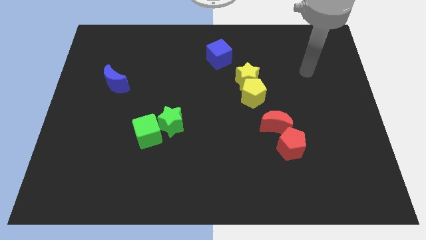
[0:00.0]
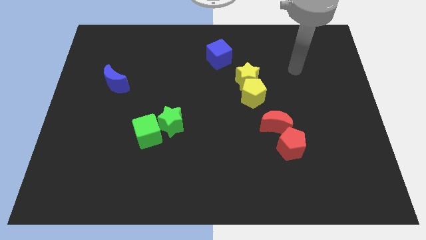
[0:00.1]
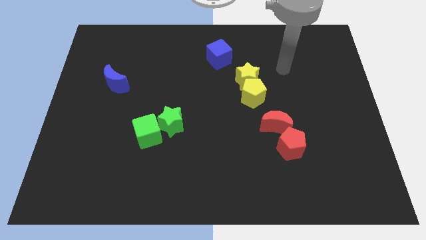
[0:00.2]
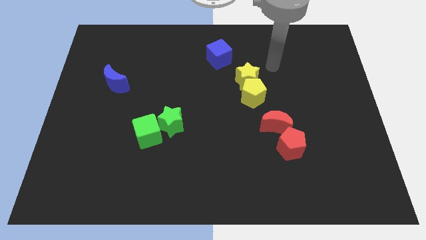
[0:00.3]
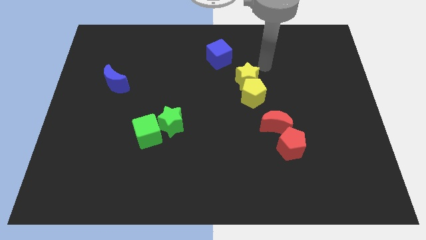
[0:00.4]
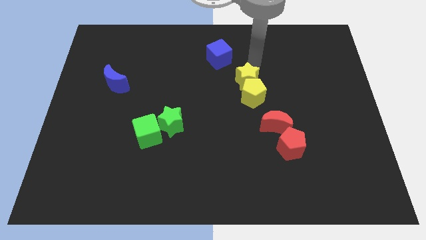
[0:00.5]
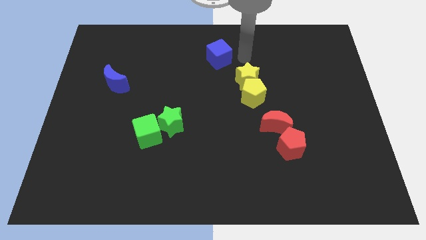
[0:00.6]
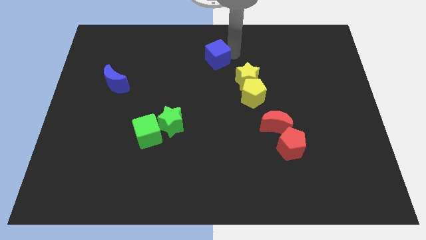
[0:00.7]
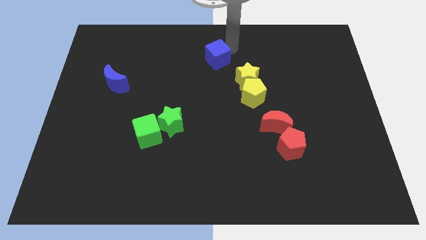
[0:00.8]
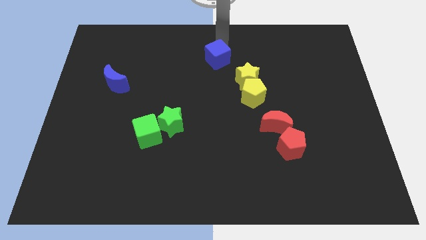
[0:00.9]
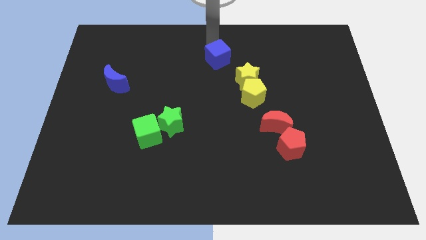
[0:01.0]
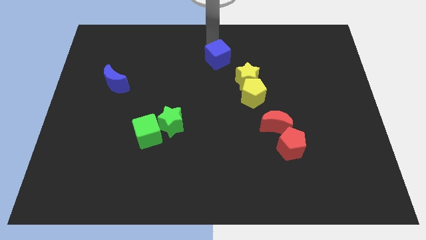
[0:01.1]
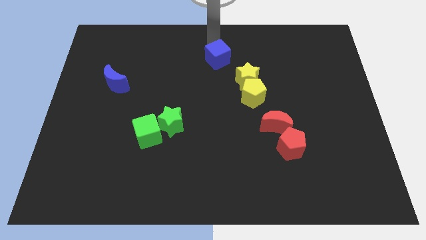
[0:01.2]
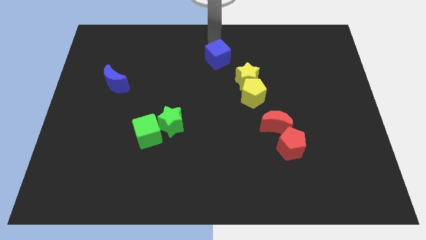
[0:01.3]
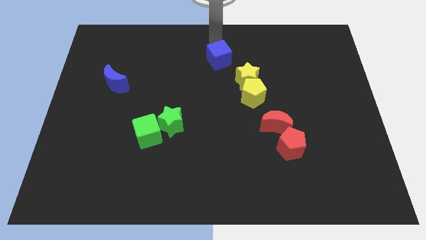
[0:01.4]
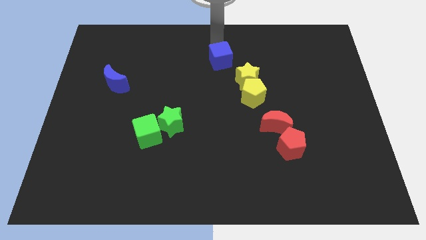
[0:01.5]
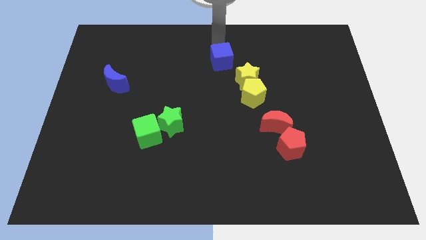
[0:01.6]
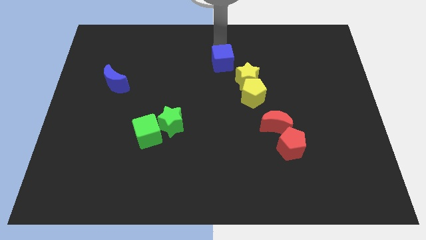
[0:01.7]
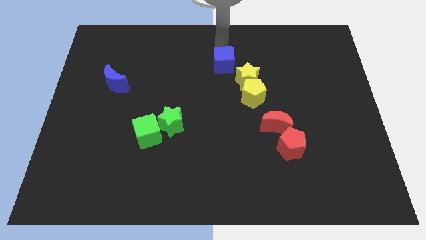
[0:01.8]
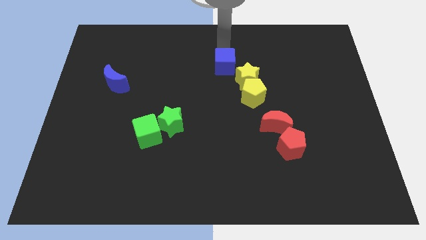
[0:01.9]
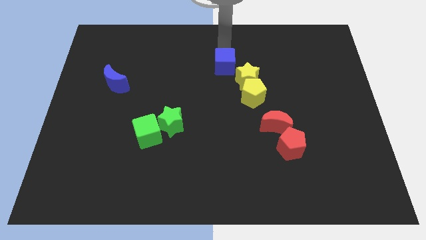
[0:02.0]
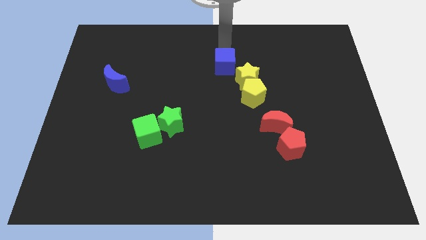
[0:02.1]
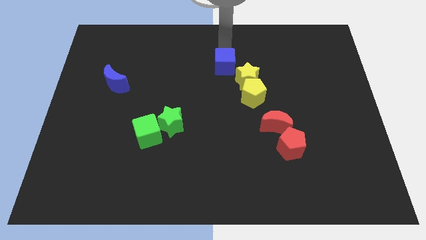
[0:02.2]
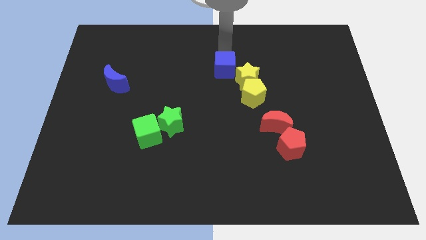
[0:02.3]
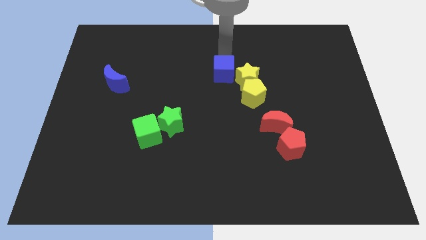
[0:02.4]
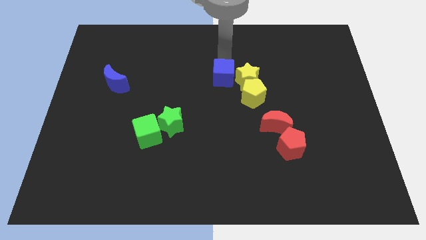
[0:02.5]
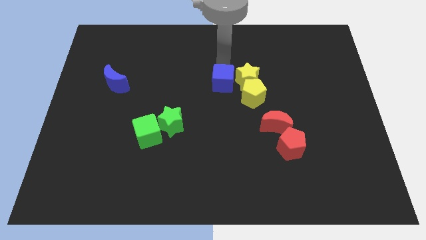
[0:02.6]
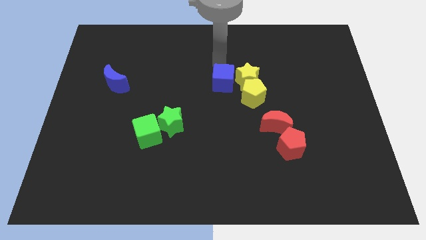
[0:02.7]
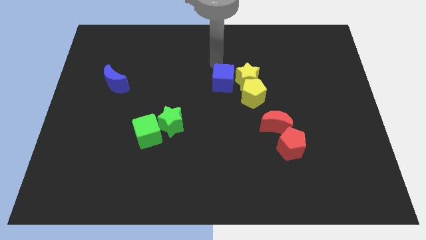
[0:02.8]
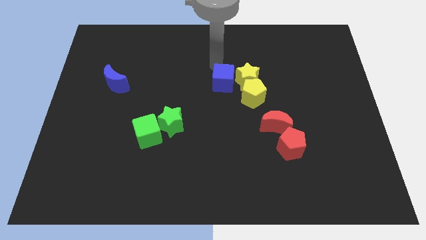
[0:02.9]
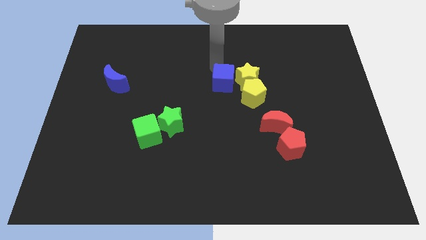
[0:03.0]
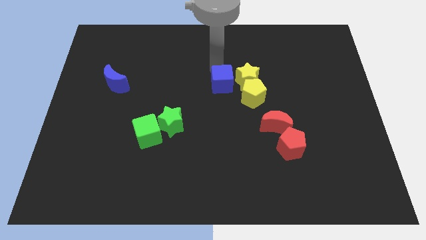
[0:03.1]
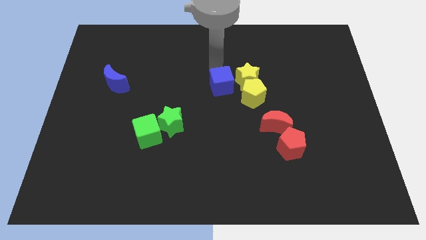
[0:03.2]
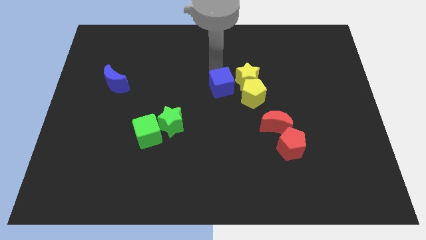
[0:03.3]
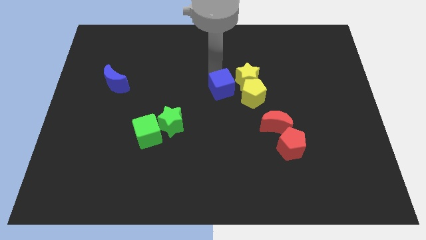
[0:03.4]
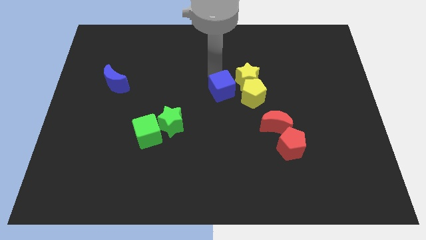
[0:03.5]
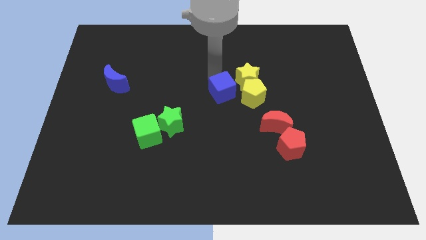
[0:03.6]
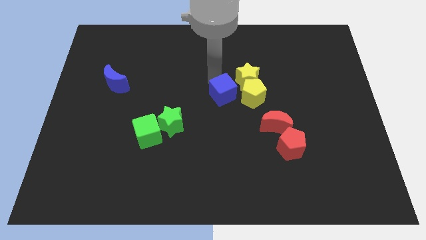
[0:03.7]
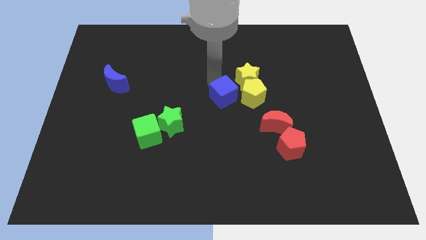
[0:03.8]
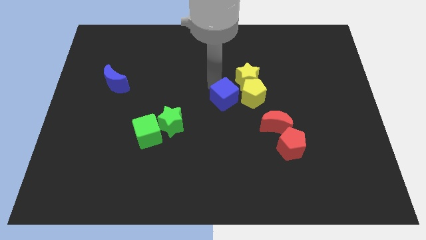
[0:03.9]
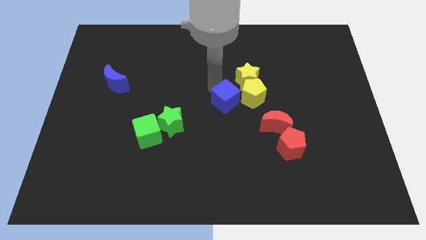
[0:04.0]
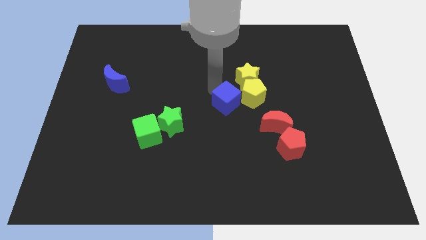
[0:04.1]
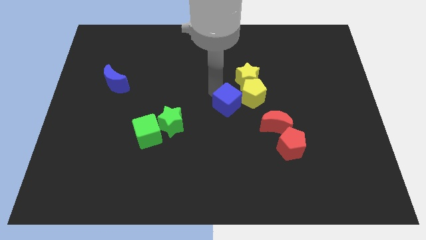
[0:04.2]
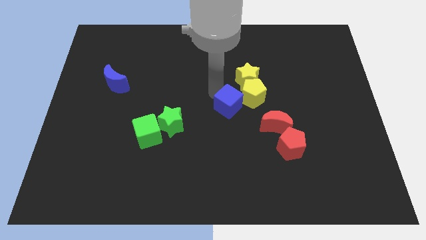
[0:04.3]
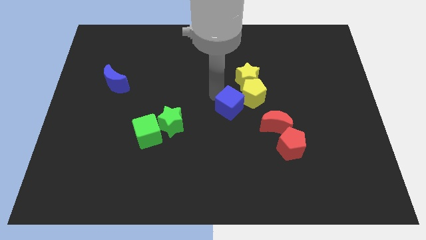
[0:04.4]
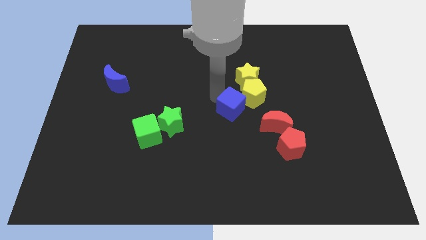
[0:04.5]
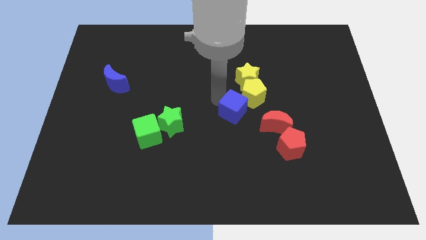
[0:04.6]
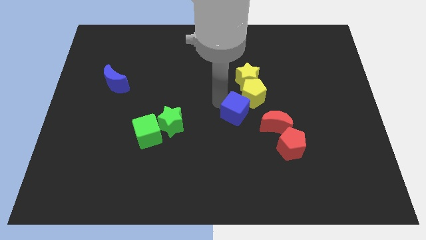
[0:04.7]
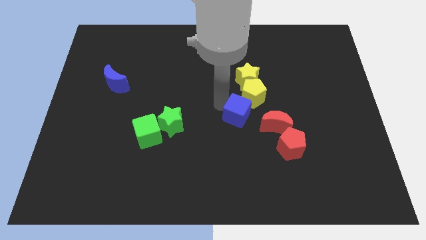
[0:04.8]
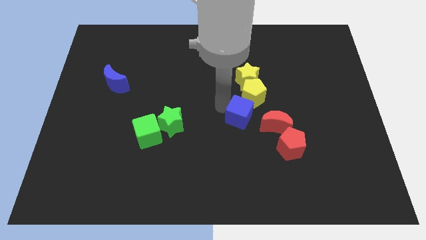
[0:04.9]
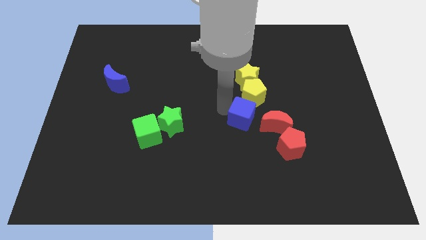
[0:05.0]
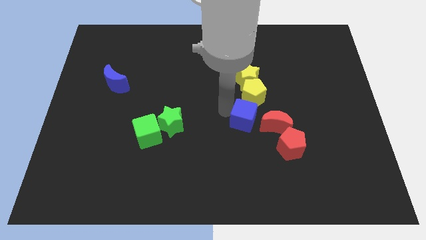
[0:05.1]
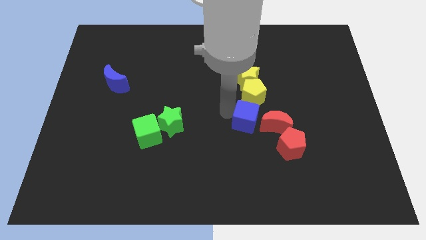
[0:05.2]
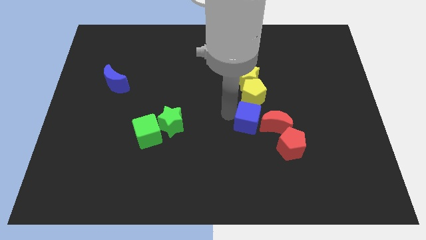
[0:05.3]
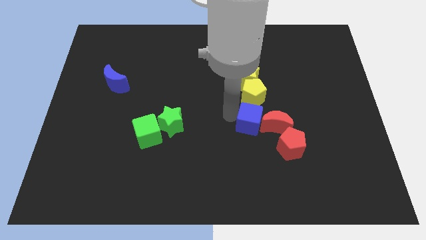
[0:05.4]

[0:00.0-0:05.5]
put the blue cube next to the red moon

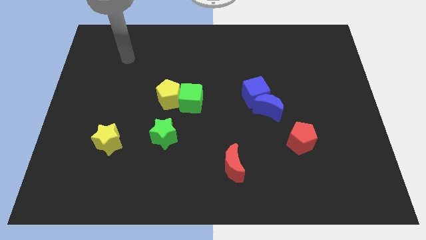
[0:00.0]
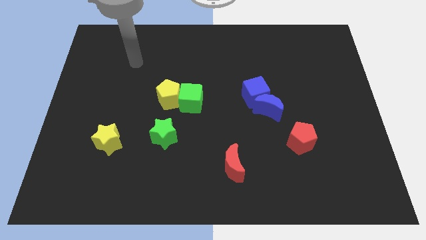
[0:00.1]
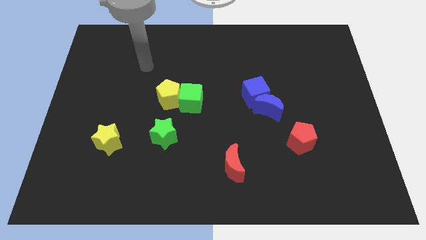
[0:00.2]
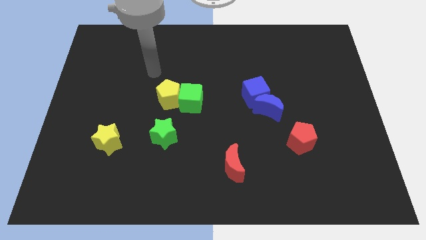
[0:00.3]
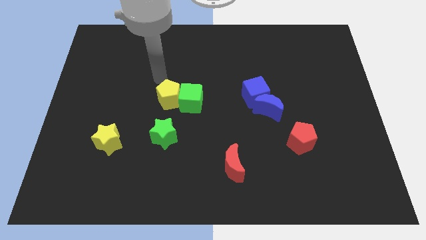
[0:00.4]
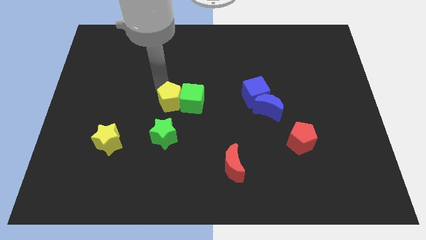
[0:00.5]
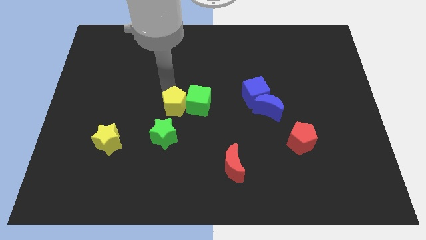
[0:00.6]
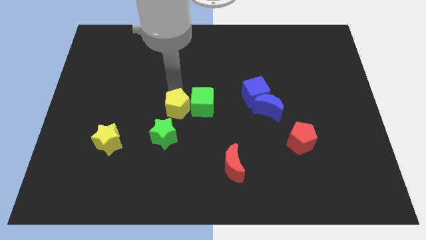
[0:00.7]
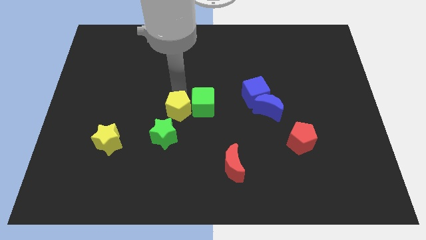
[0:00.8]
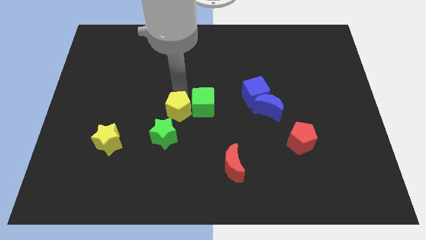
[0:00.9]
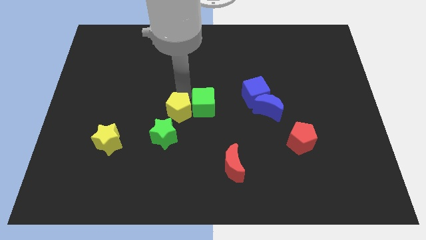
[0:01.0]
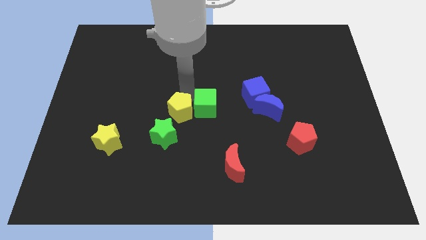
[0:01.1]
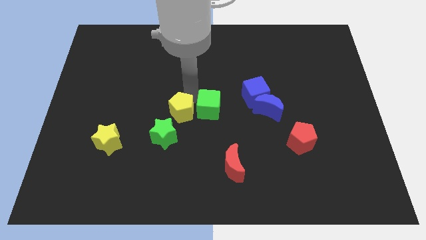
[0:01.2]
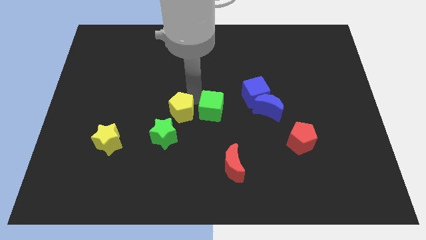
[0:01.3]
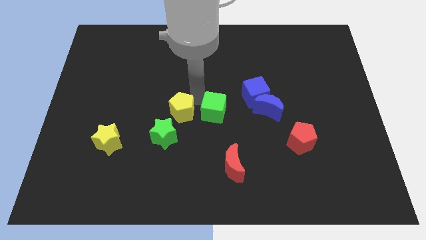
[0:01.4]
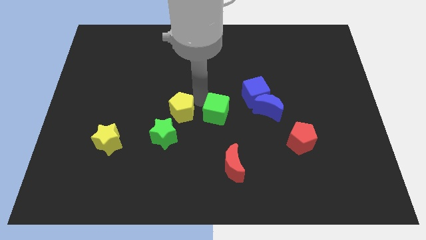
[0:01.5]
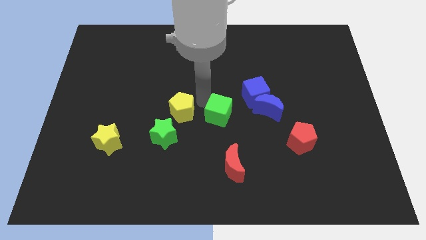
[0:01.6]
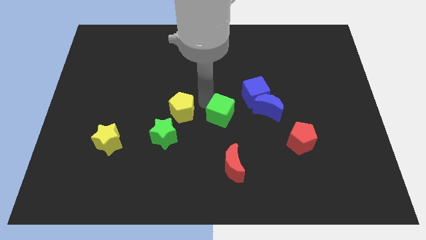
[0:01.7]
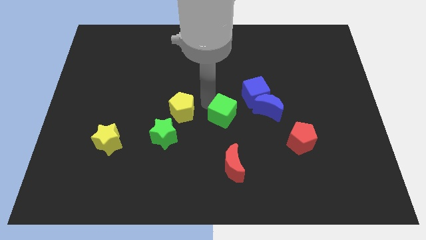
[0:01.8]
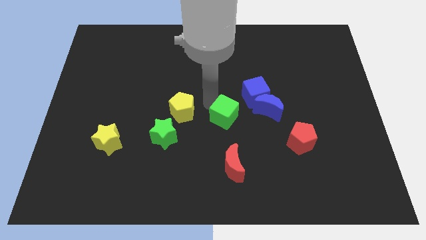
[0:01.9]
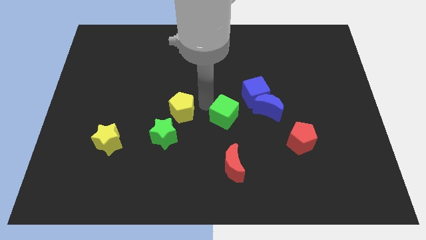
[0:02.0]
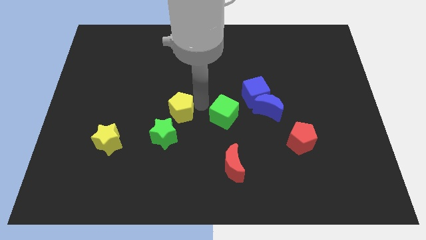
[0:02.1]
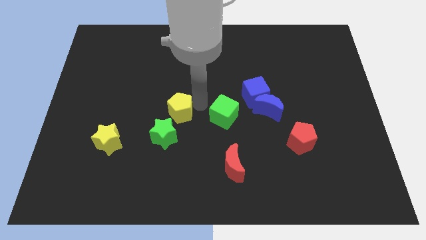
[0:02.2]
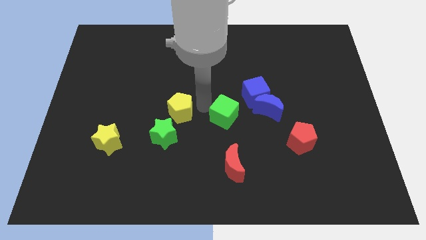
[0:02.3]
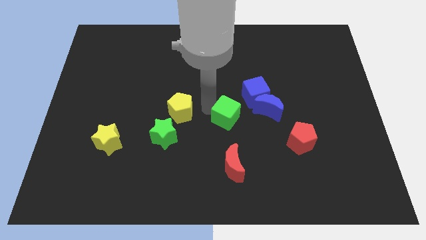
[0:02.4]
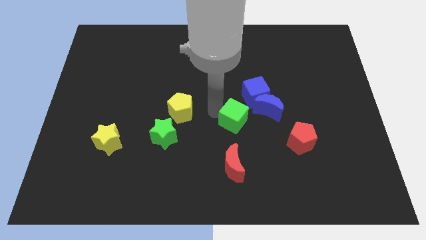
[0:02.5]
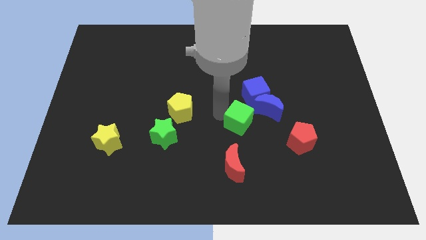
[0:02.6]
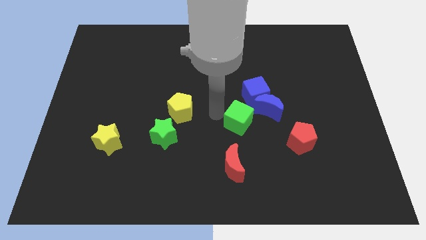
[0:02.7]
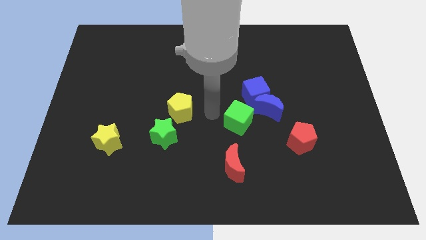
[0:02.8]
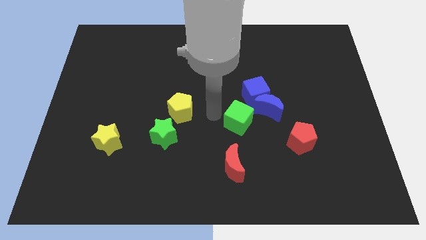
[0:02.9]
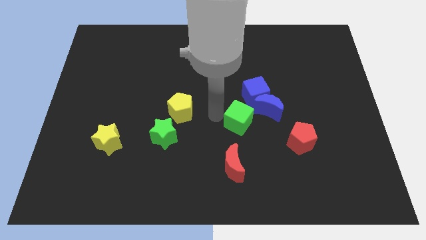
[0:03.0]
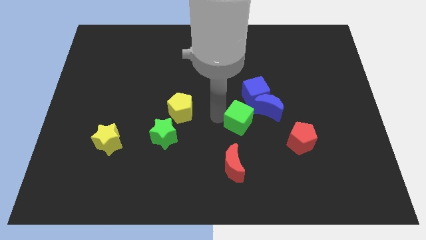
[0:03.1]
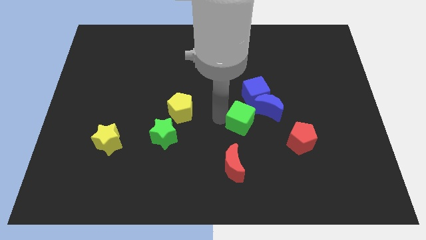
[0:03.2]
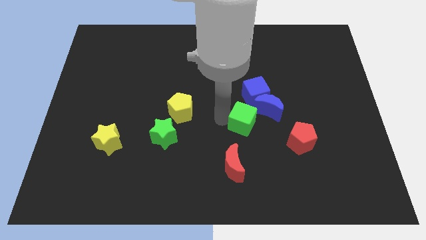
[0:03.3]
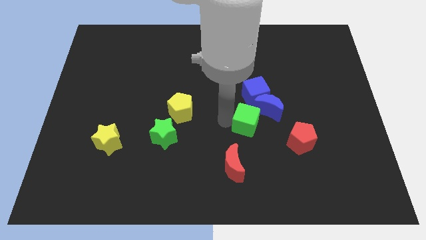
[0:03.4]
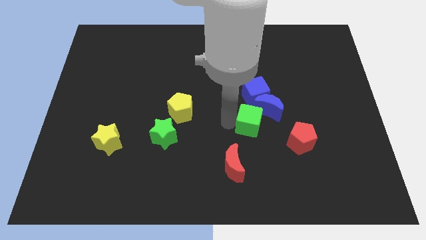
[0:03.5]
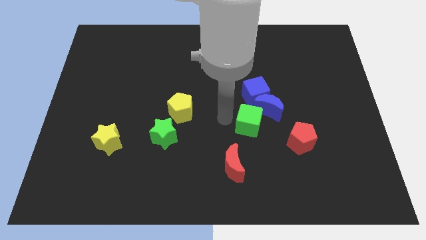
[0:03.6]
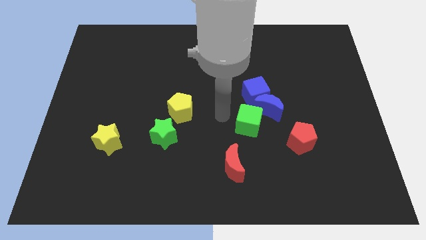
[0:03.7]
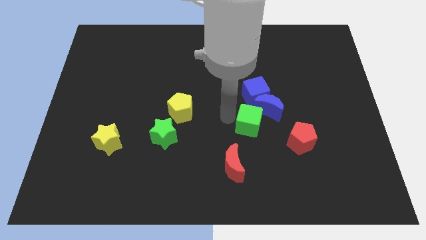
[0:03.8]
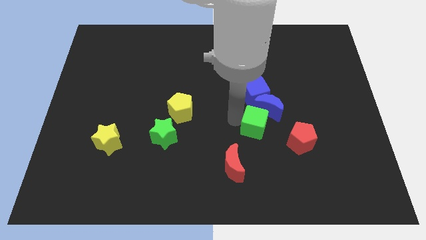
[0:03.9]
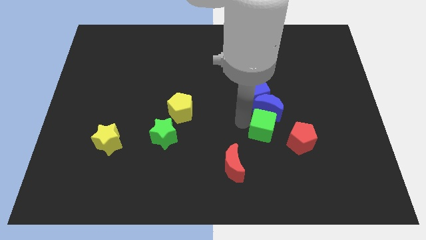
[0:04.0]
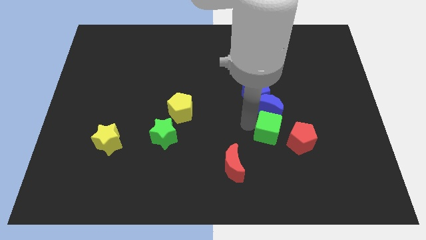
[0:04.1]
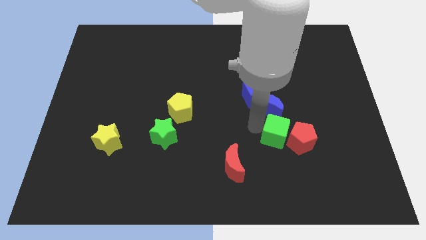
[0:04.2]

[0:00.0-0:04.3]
slide the green cube close to the red pentagon
